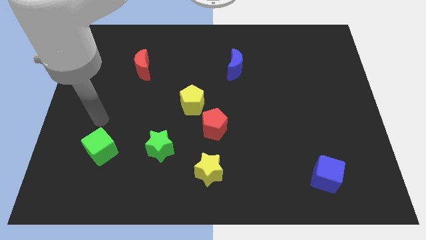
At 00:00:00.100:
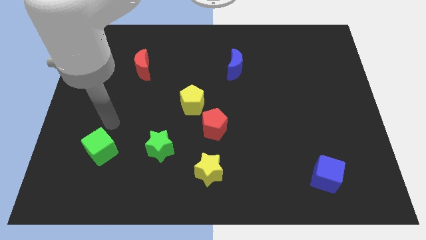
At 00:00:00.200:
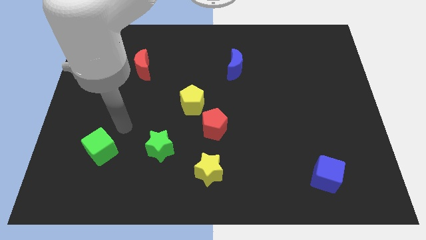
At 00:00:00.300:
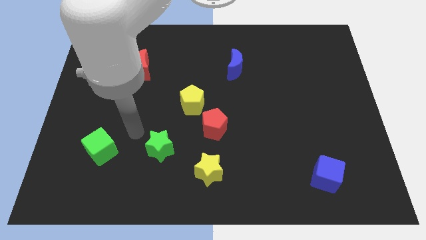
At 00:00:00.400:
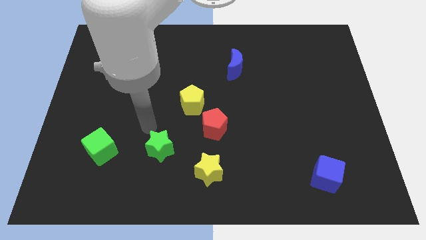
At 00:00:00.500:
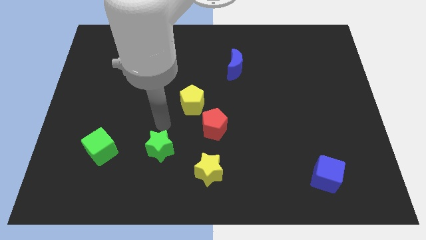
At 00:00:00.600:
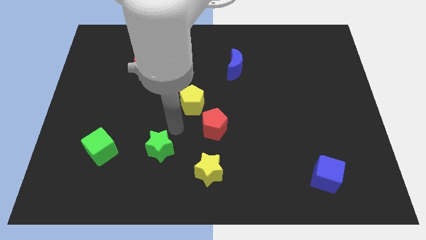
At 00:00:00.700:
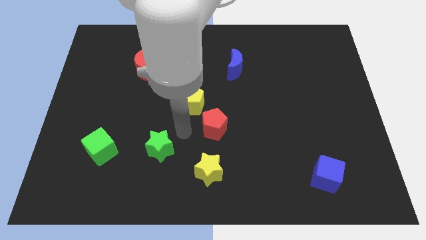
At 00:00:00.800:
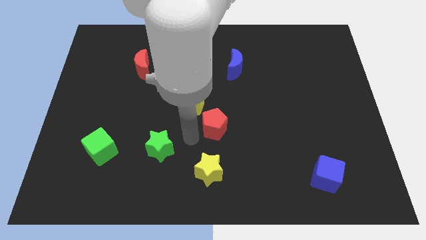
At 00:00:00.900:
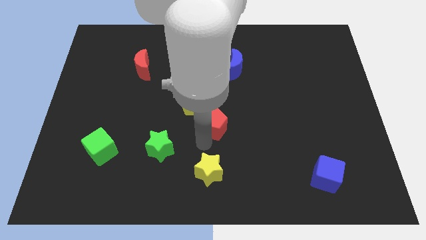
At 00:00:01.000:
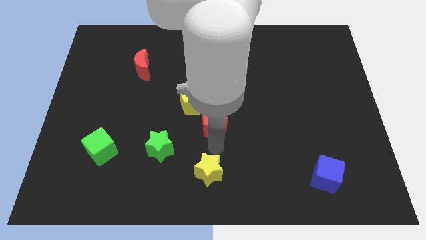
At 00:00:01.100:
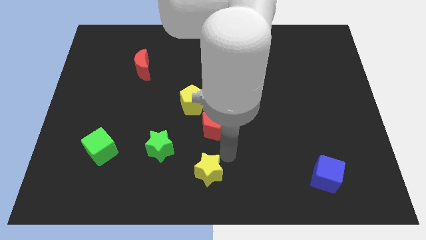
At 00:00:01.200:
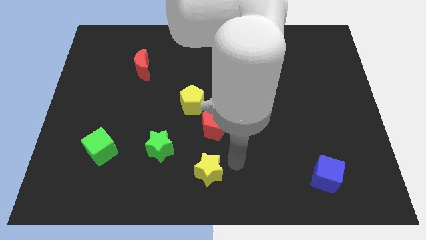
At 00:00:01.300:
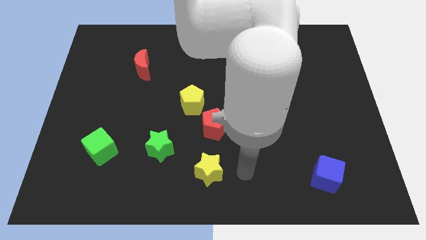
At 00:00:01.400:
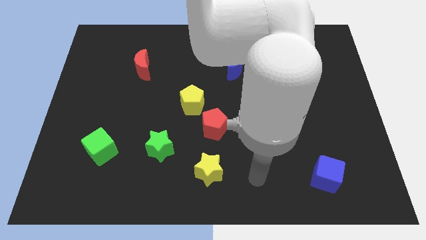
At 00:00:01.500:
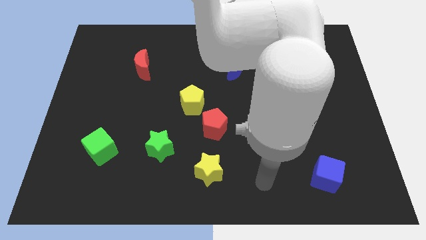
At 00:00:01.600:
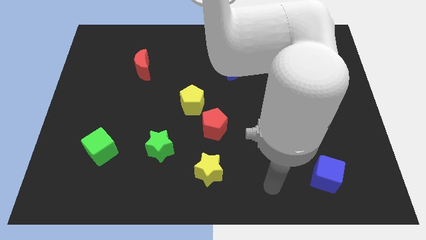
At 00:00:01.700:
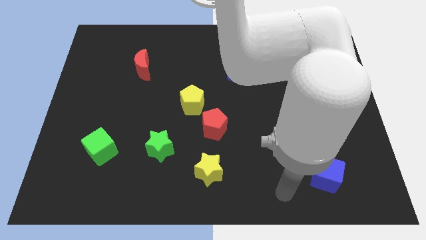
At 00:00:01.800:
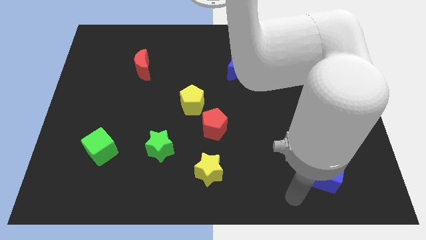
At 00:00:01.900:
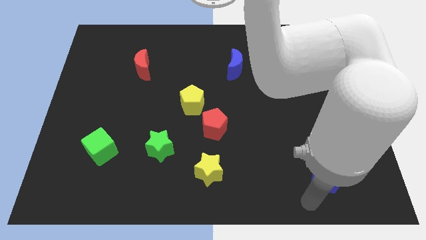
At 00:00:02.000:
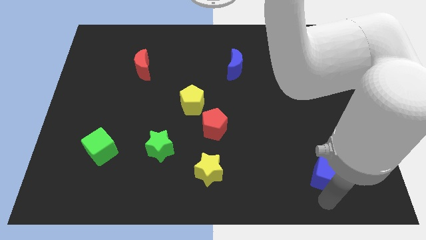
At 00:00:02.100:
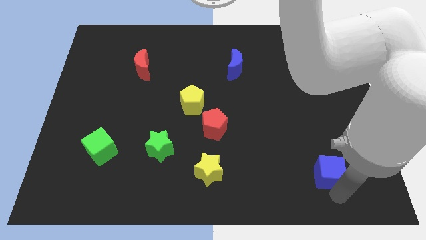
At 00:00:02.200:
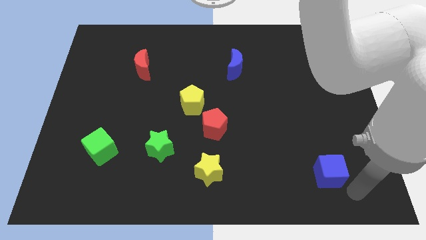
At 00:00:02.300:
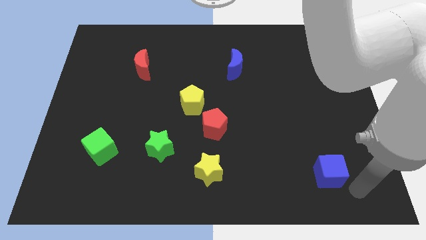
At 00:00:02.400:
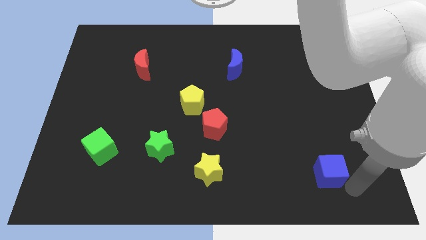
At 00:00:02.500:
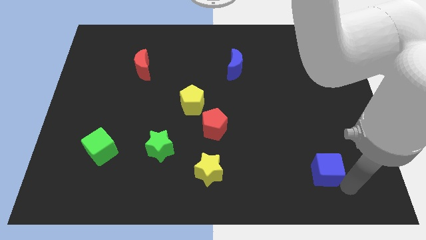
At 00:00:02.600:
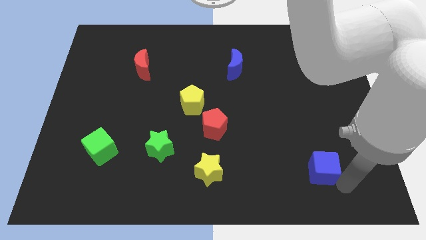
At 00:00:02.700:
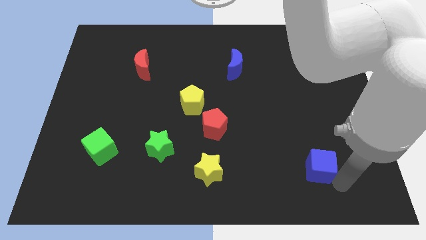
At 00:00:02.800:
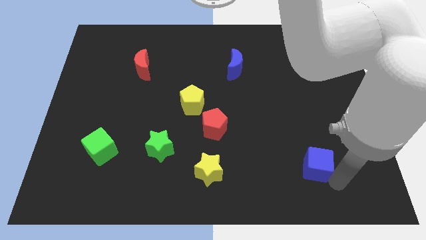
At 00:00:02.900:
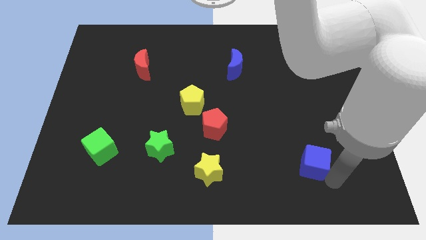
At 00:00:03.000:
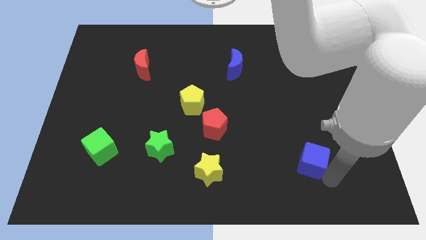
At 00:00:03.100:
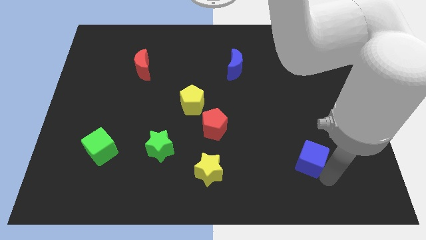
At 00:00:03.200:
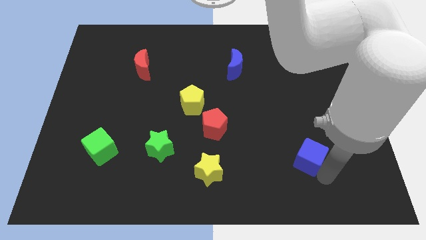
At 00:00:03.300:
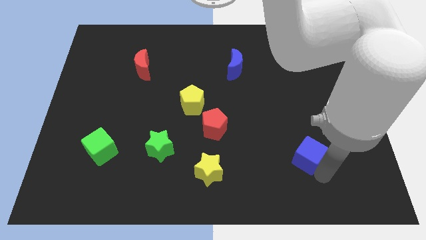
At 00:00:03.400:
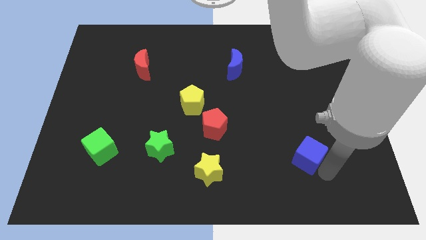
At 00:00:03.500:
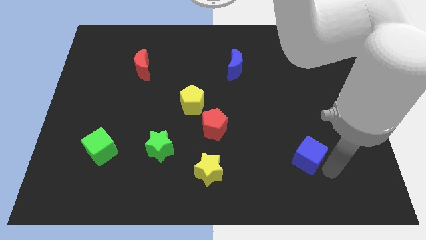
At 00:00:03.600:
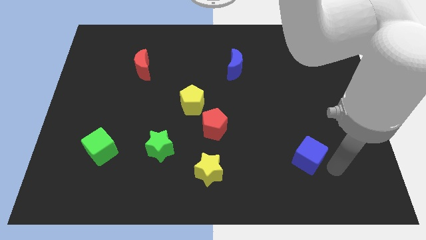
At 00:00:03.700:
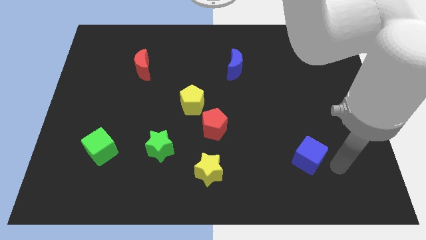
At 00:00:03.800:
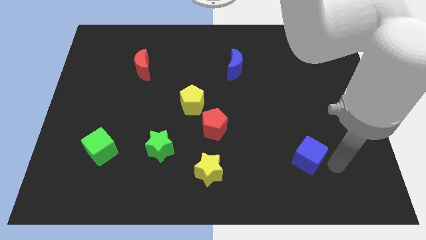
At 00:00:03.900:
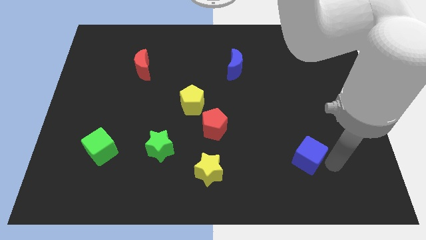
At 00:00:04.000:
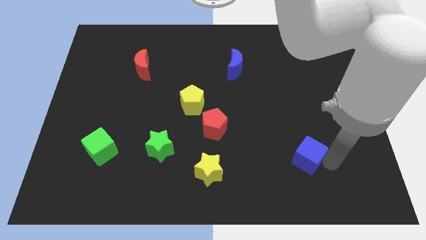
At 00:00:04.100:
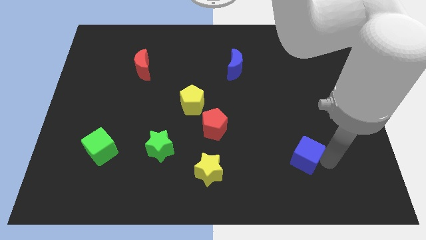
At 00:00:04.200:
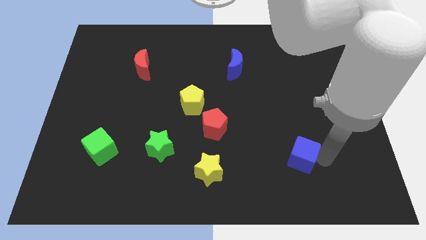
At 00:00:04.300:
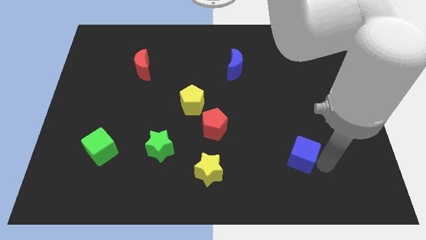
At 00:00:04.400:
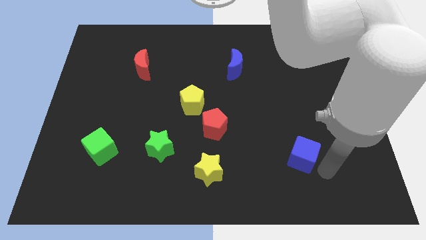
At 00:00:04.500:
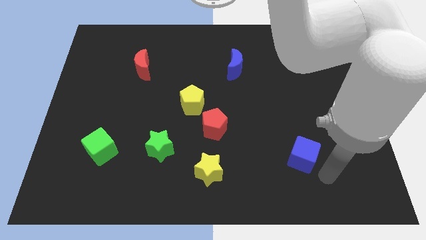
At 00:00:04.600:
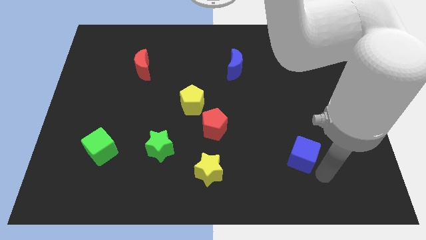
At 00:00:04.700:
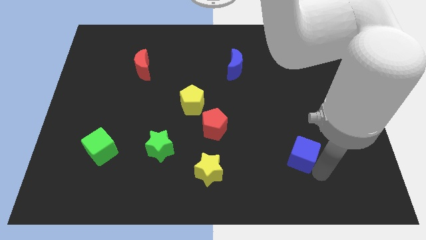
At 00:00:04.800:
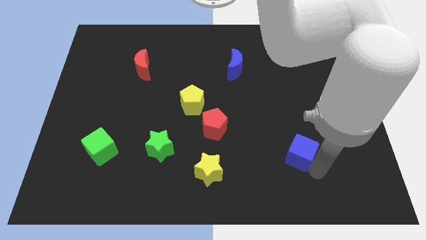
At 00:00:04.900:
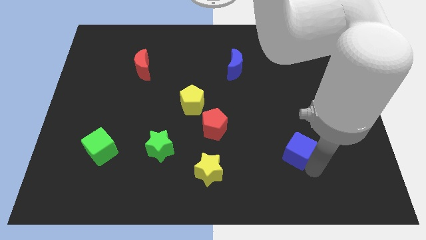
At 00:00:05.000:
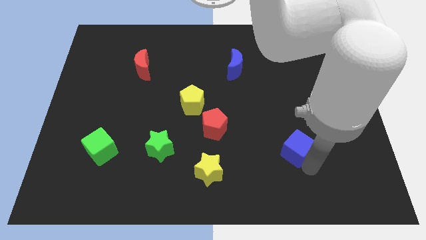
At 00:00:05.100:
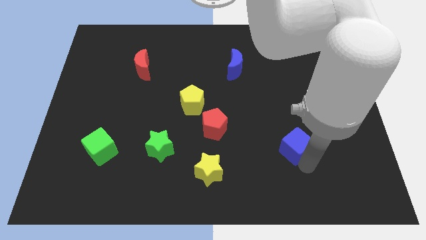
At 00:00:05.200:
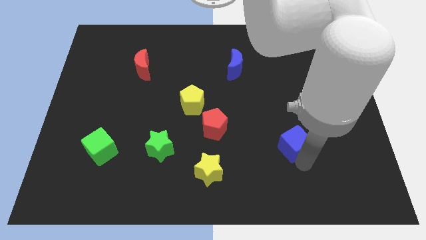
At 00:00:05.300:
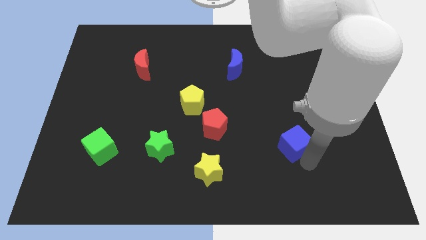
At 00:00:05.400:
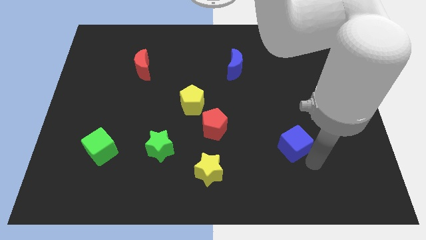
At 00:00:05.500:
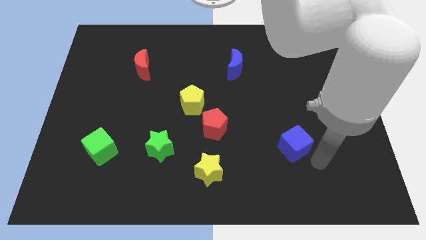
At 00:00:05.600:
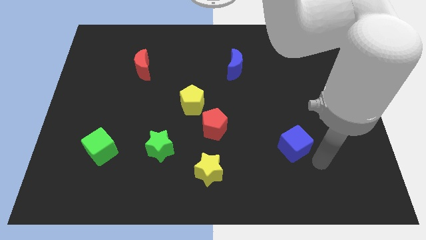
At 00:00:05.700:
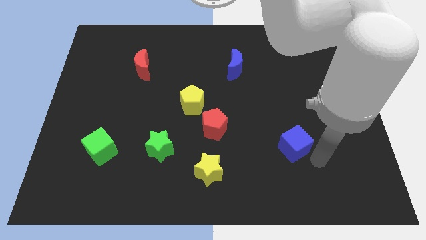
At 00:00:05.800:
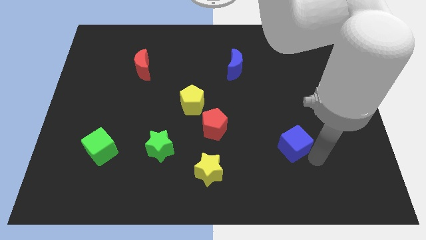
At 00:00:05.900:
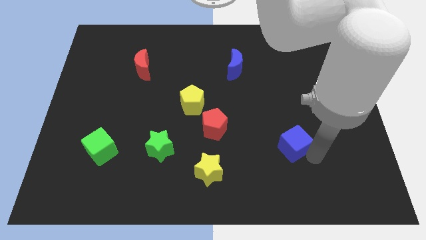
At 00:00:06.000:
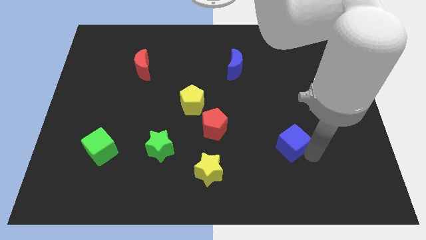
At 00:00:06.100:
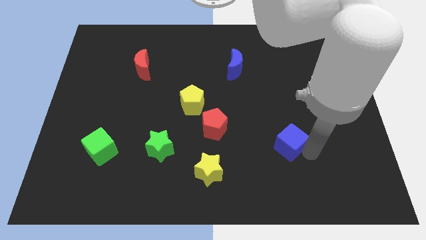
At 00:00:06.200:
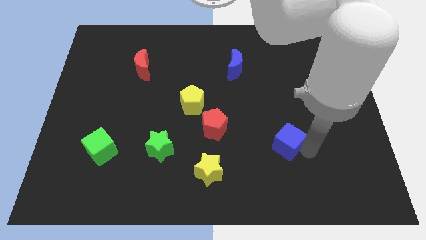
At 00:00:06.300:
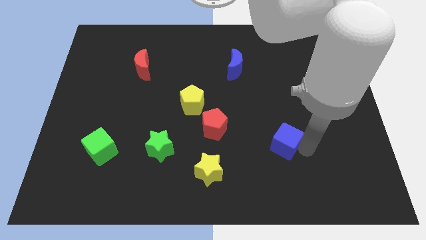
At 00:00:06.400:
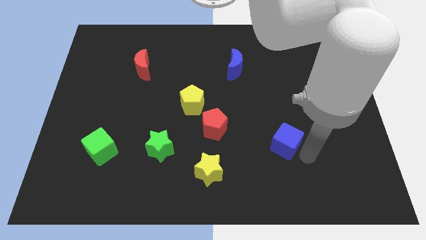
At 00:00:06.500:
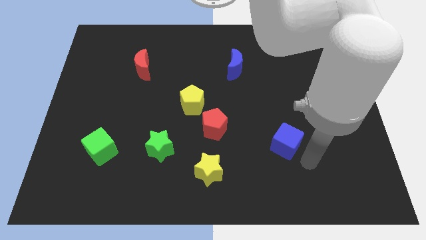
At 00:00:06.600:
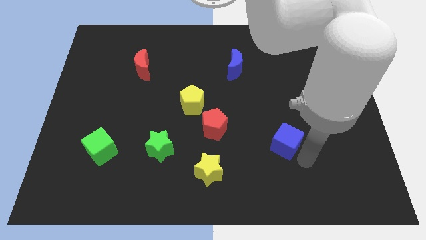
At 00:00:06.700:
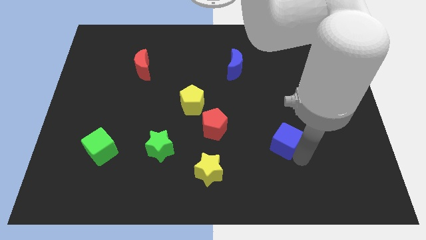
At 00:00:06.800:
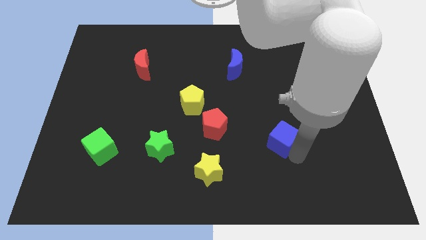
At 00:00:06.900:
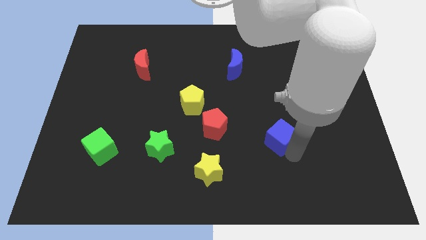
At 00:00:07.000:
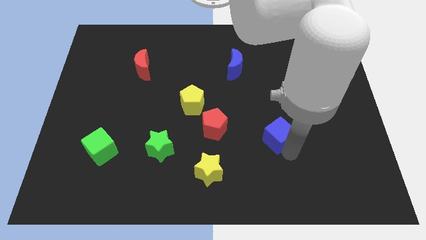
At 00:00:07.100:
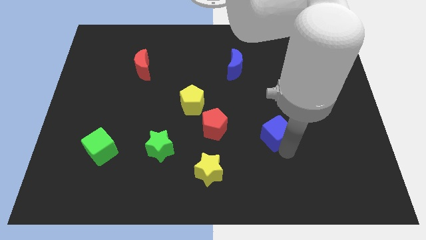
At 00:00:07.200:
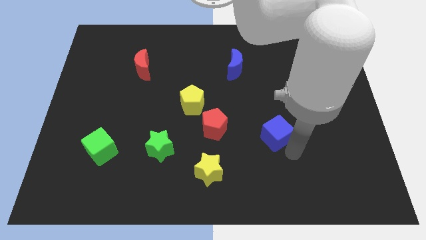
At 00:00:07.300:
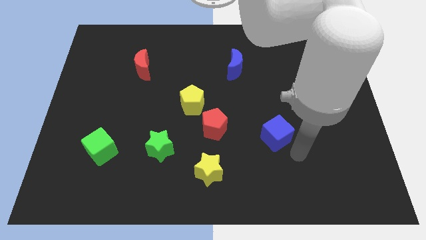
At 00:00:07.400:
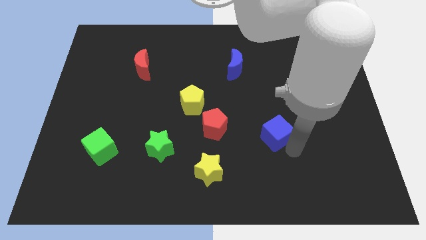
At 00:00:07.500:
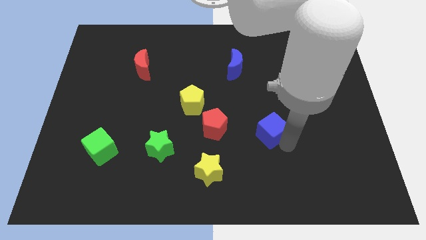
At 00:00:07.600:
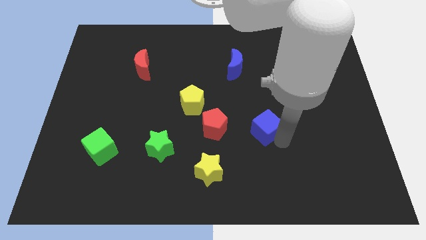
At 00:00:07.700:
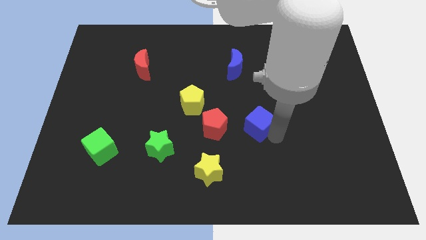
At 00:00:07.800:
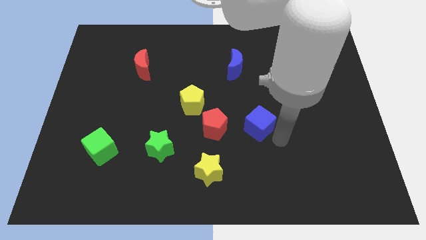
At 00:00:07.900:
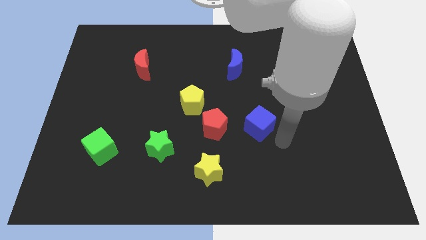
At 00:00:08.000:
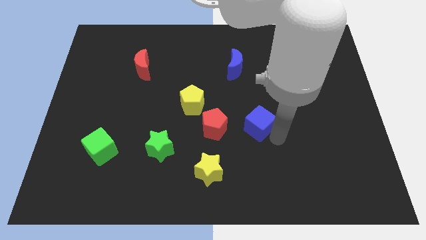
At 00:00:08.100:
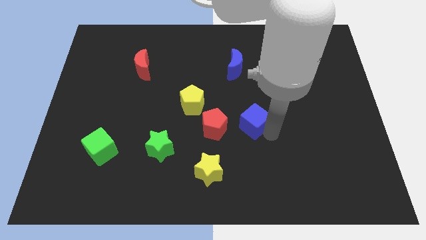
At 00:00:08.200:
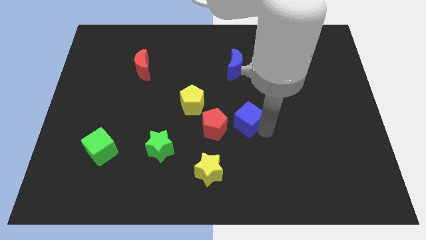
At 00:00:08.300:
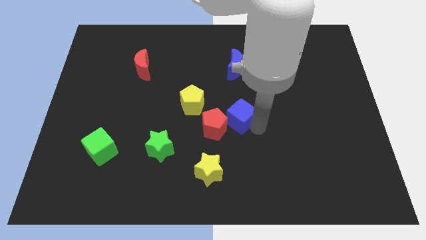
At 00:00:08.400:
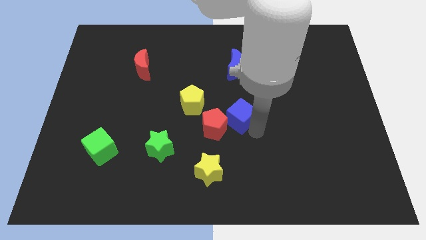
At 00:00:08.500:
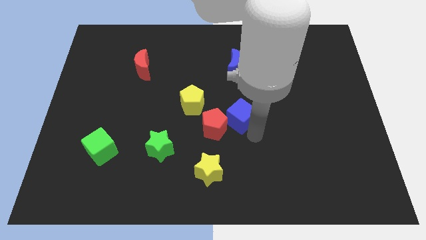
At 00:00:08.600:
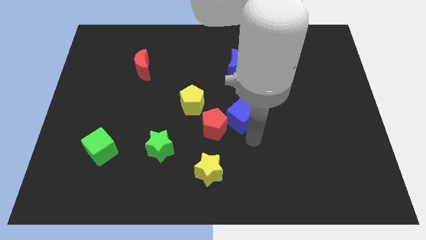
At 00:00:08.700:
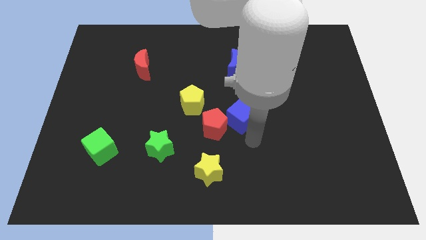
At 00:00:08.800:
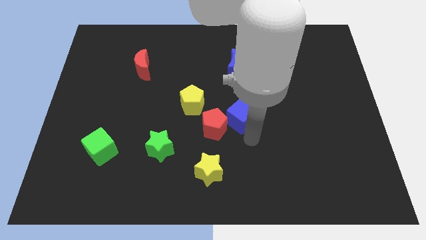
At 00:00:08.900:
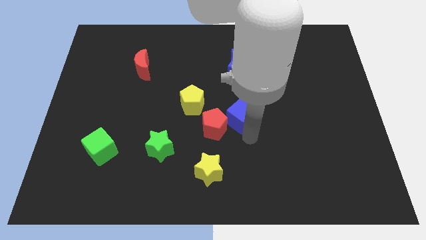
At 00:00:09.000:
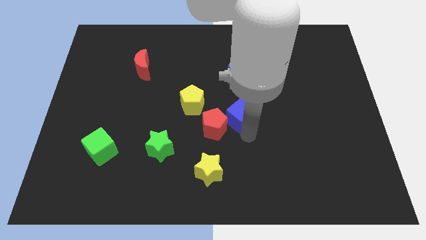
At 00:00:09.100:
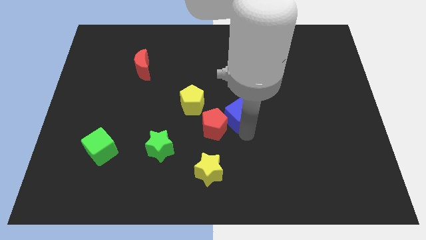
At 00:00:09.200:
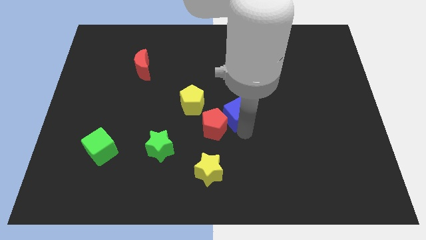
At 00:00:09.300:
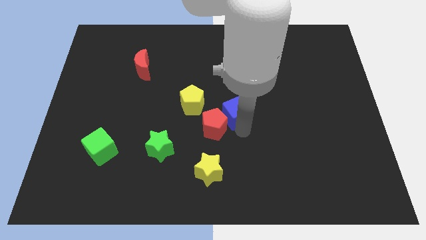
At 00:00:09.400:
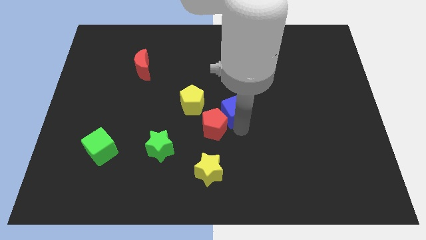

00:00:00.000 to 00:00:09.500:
move the blue cube to the top side of the red pentagon
